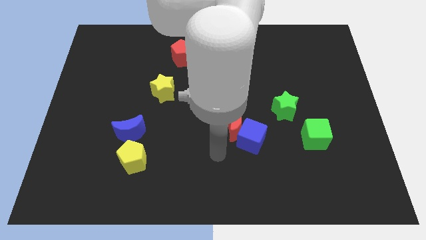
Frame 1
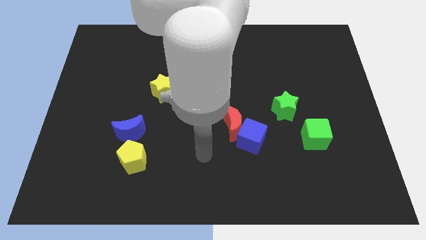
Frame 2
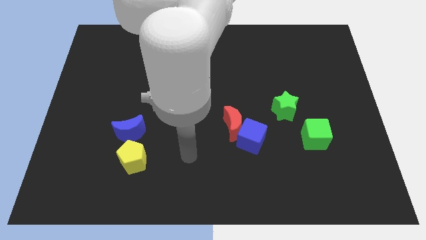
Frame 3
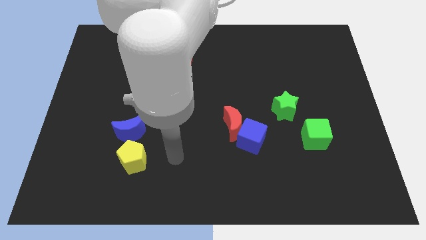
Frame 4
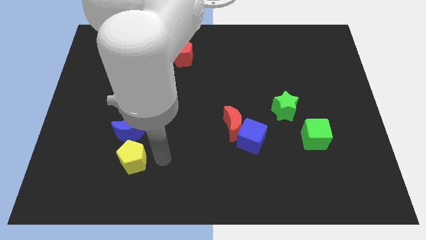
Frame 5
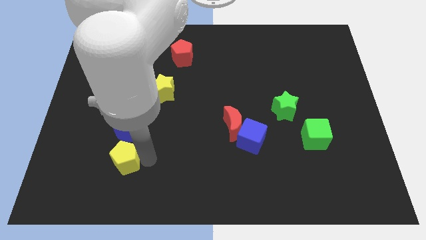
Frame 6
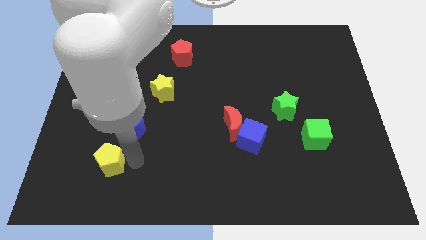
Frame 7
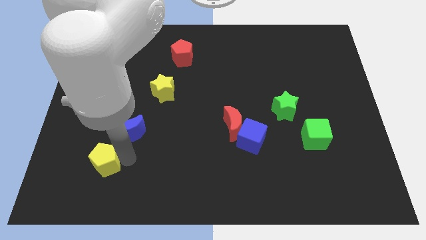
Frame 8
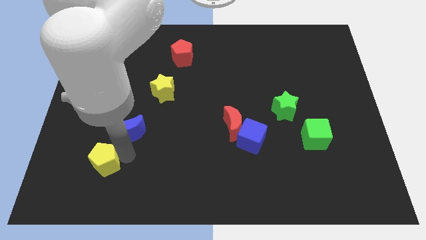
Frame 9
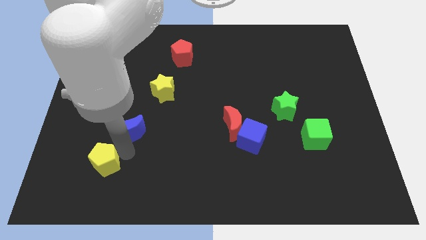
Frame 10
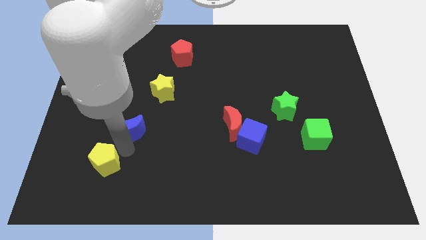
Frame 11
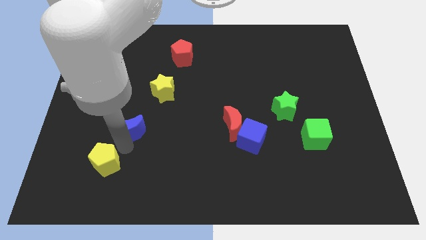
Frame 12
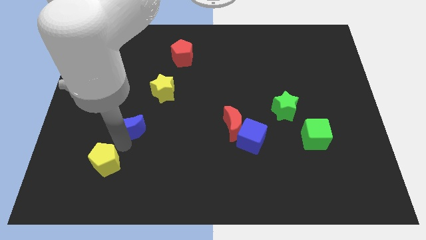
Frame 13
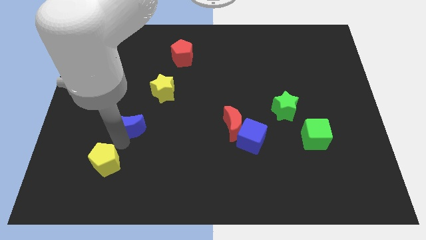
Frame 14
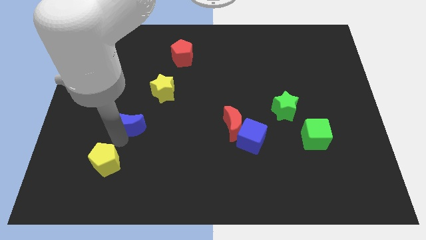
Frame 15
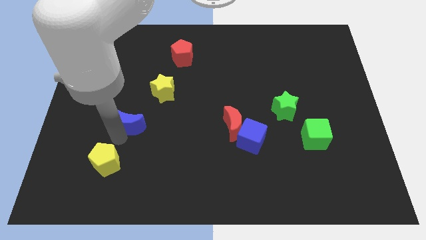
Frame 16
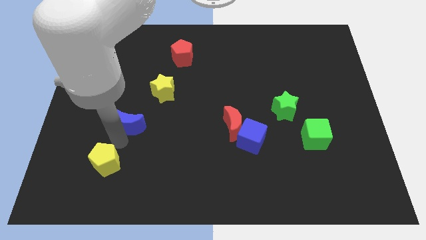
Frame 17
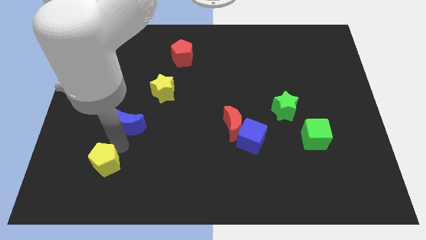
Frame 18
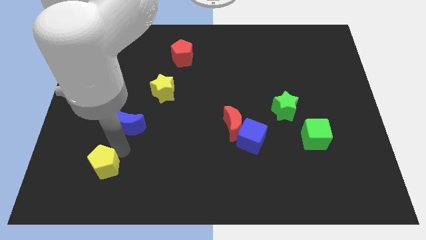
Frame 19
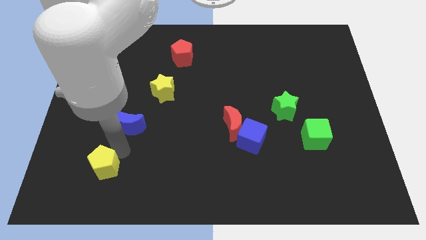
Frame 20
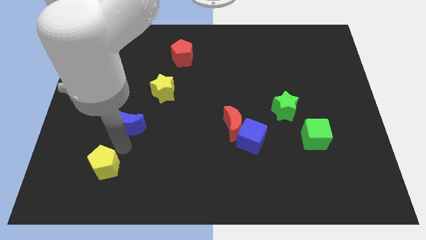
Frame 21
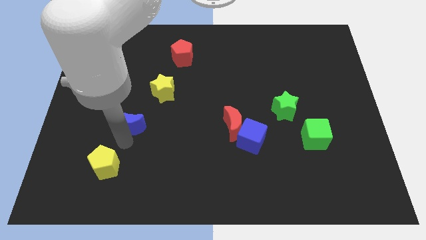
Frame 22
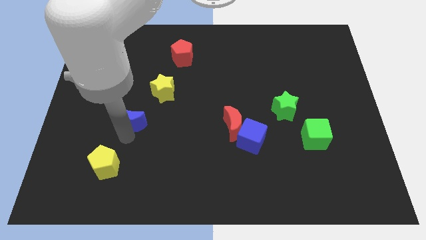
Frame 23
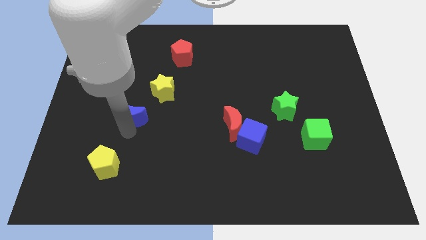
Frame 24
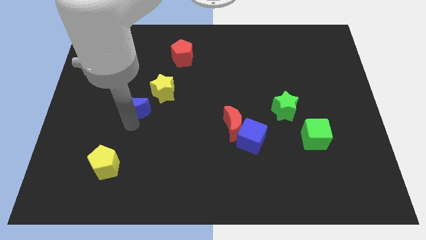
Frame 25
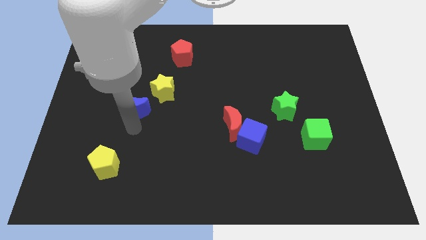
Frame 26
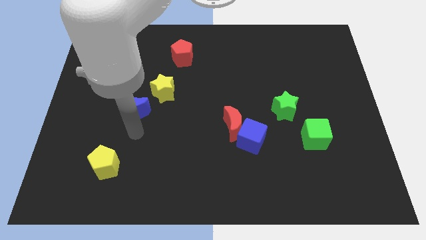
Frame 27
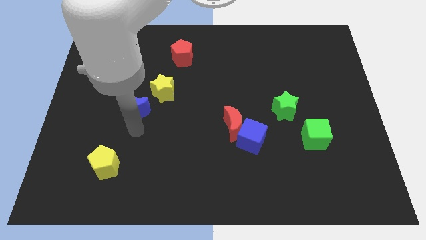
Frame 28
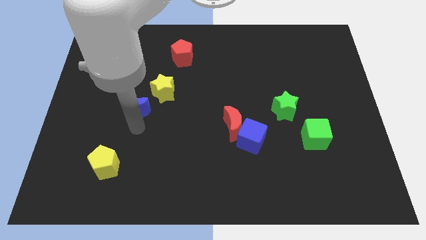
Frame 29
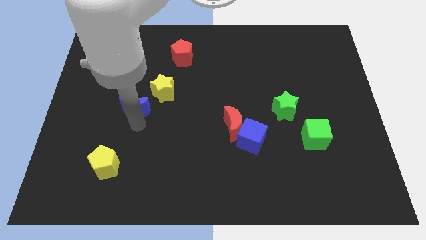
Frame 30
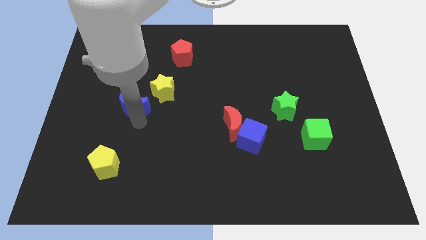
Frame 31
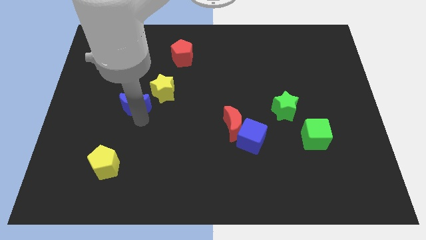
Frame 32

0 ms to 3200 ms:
slightly slide the blue moon upwards

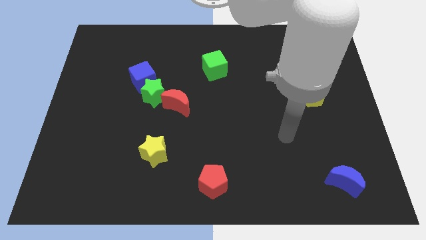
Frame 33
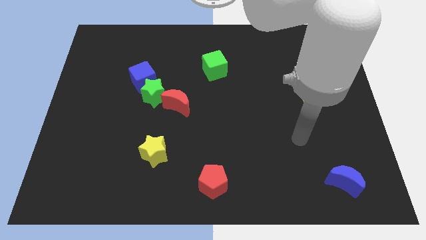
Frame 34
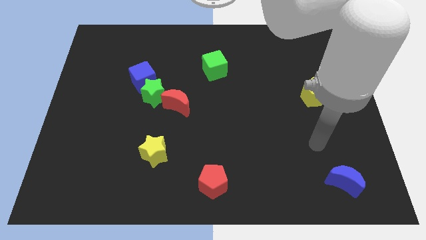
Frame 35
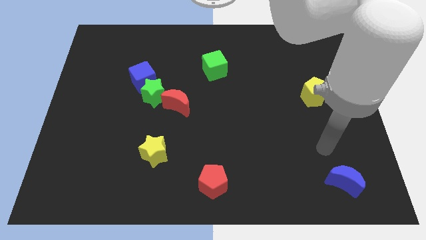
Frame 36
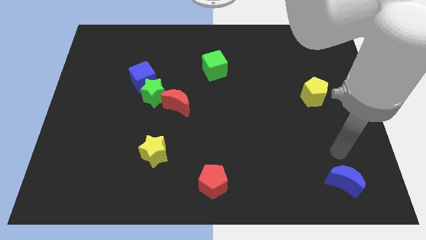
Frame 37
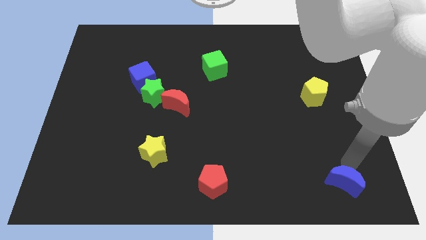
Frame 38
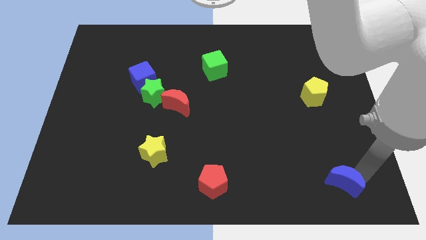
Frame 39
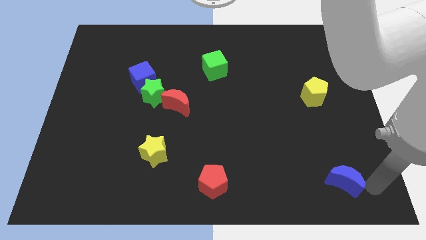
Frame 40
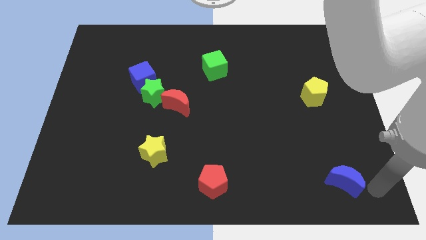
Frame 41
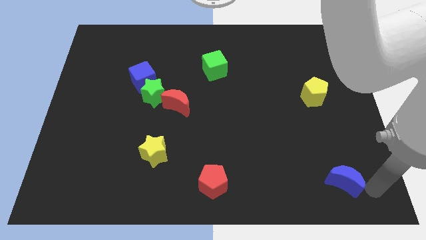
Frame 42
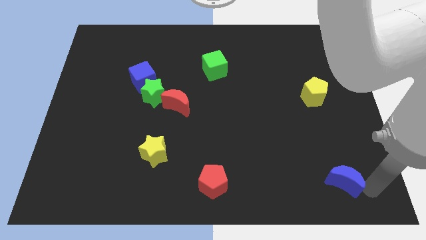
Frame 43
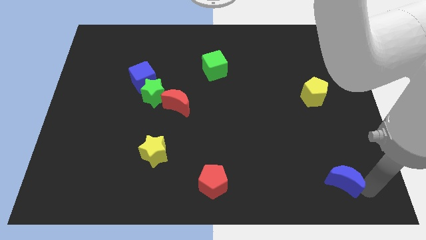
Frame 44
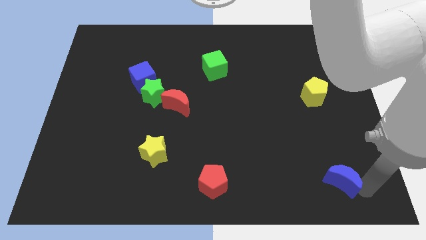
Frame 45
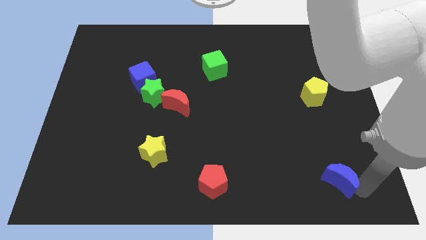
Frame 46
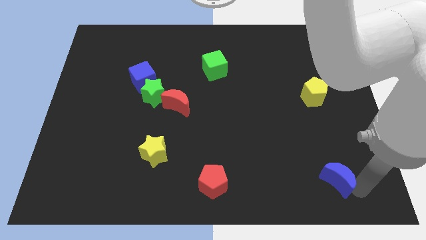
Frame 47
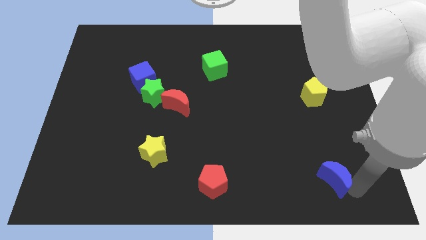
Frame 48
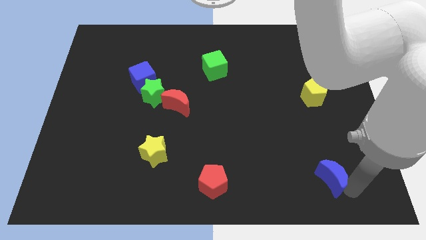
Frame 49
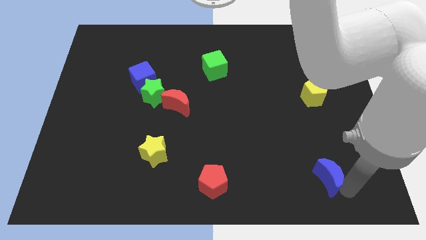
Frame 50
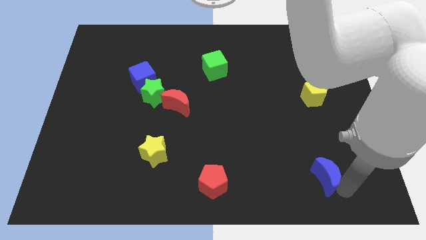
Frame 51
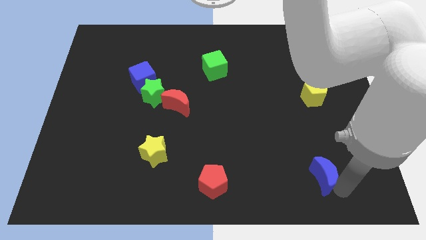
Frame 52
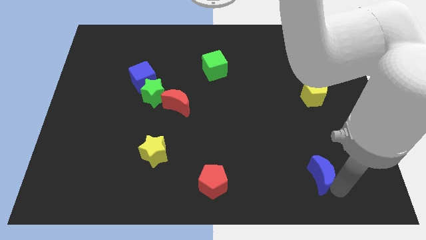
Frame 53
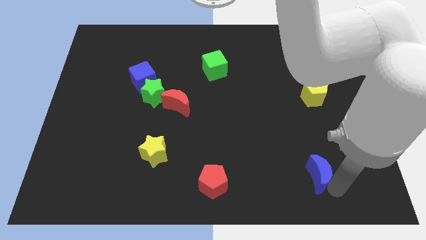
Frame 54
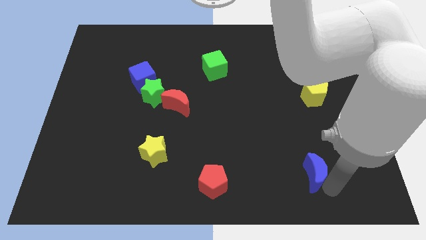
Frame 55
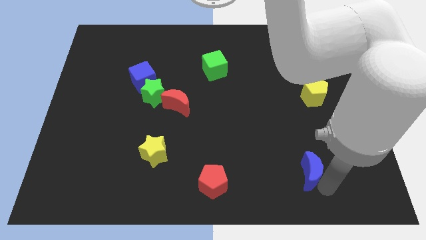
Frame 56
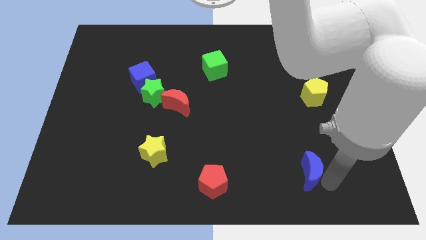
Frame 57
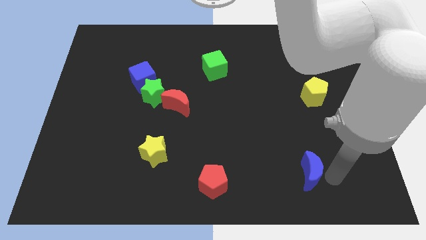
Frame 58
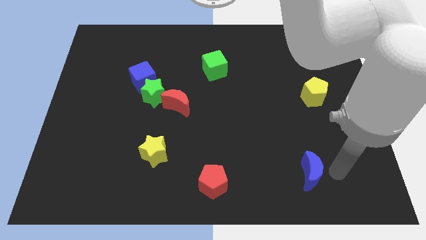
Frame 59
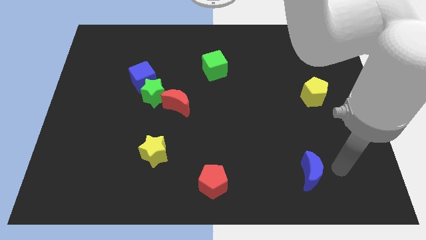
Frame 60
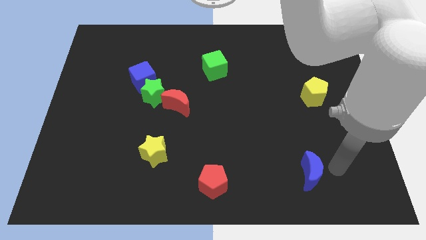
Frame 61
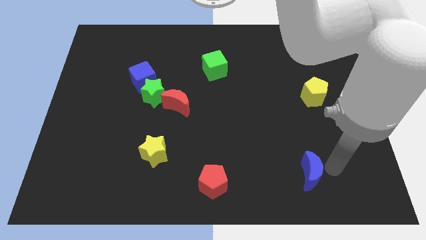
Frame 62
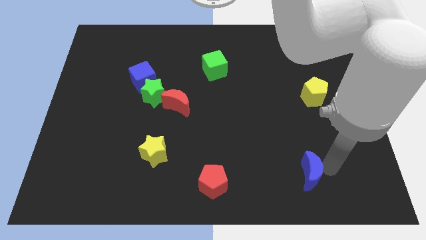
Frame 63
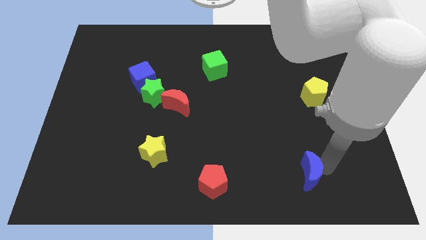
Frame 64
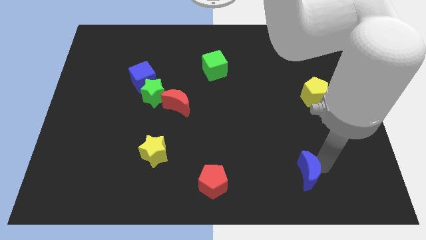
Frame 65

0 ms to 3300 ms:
slide the blue moon left a little bit

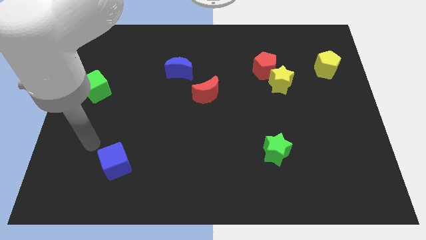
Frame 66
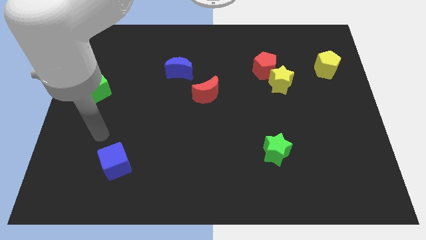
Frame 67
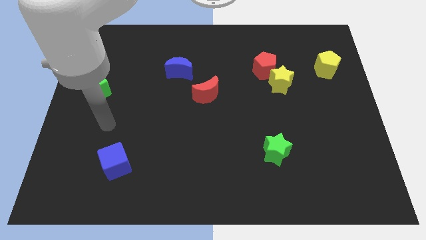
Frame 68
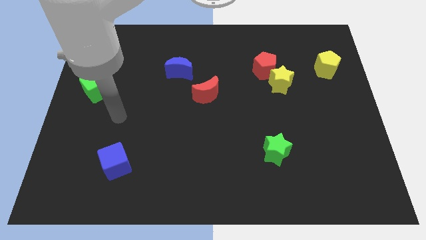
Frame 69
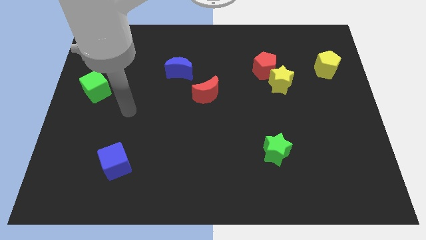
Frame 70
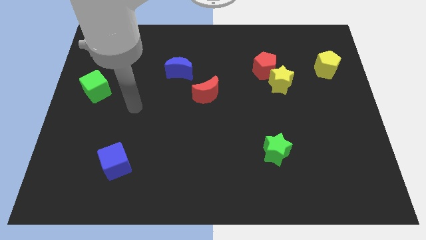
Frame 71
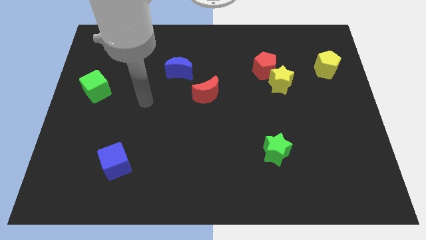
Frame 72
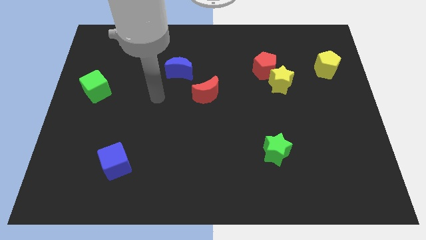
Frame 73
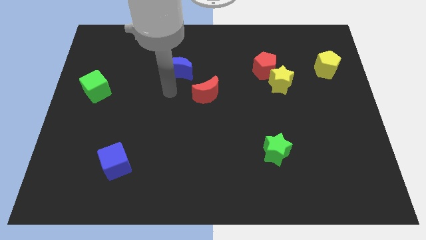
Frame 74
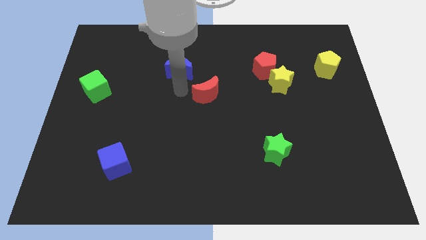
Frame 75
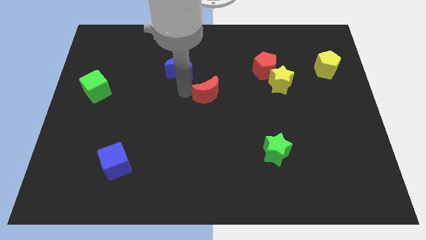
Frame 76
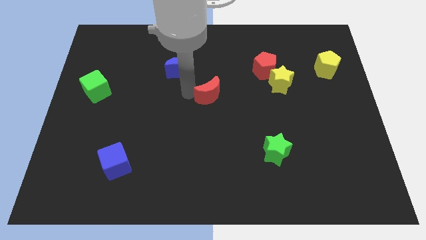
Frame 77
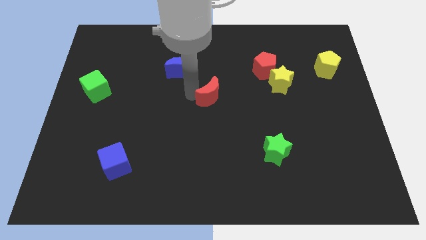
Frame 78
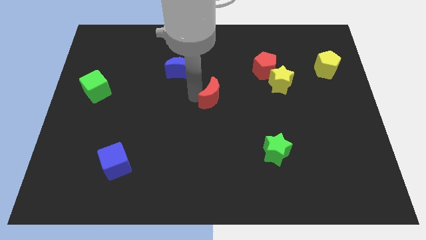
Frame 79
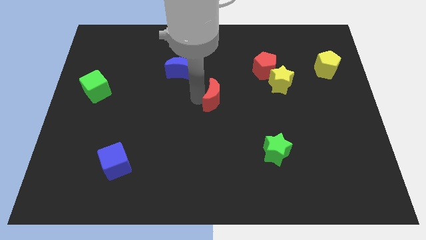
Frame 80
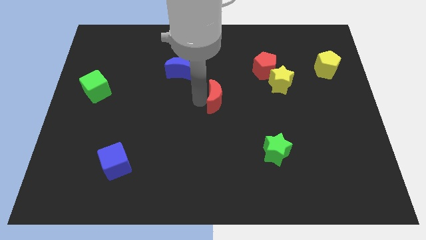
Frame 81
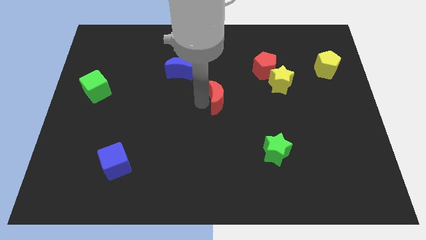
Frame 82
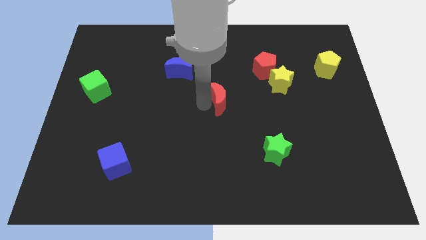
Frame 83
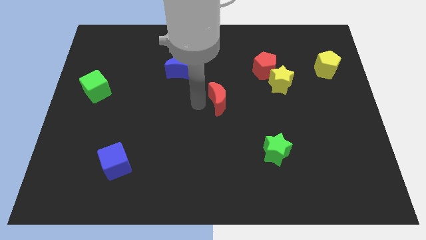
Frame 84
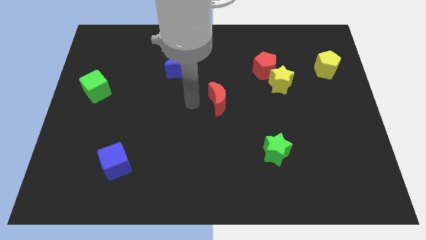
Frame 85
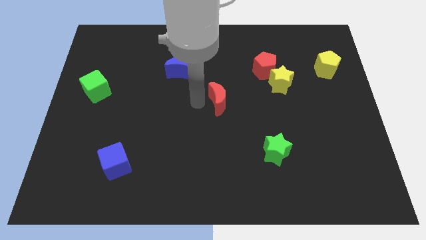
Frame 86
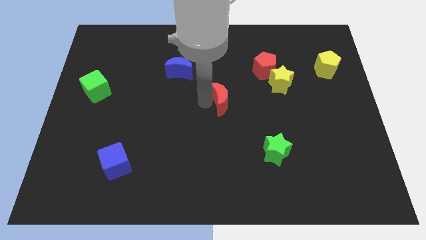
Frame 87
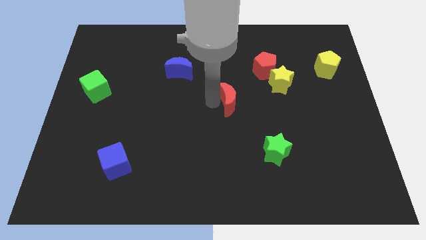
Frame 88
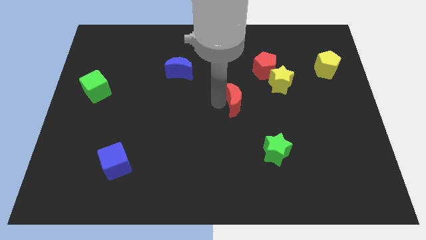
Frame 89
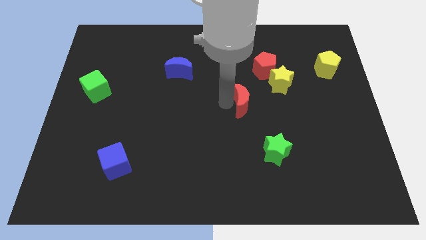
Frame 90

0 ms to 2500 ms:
slightly slide the red moon to the right
